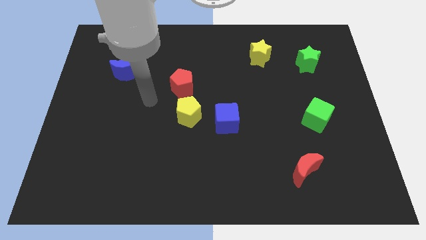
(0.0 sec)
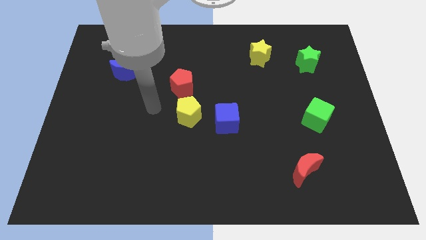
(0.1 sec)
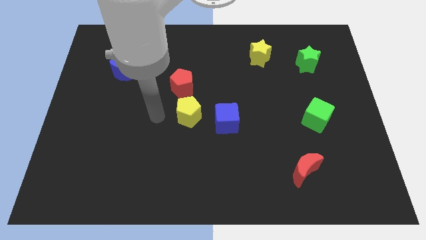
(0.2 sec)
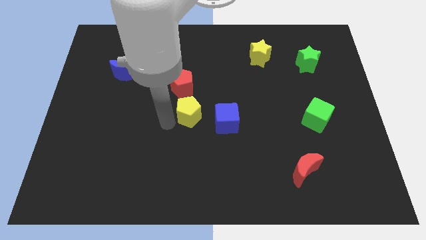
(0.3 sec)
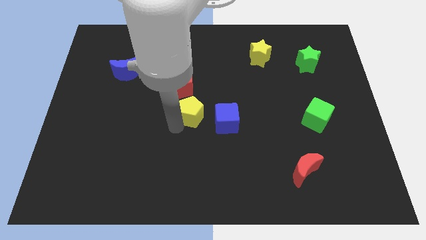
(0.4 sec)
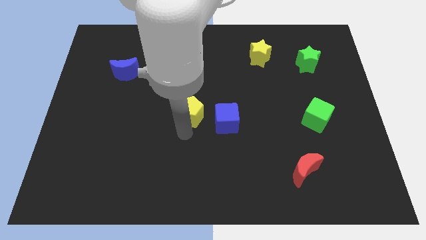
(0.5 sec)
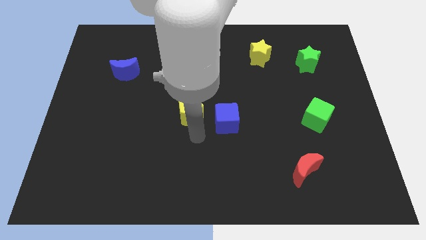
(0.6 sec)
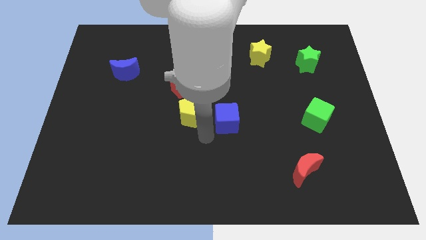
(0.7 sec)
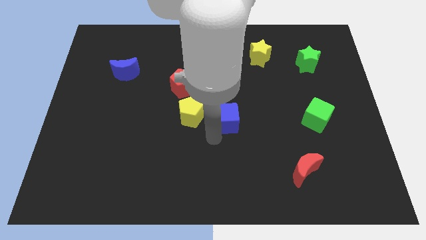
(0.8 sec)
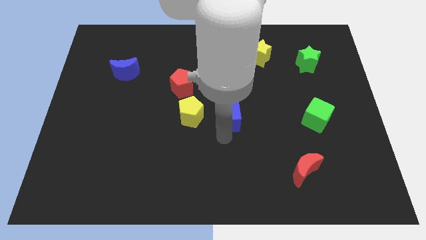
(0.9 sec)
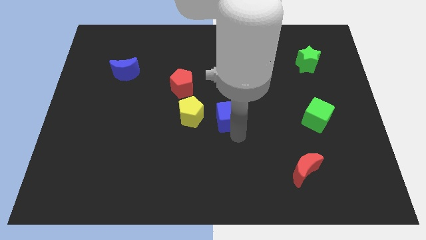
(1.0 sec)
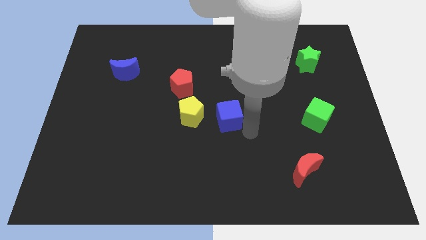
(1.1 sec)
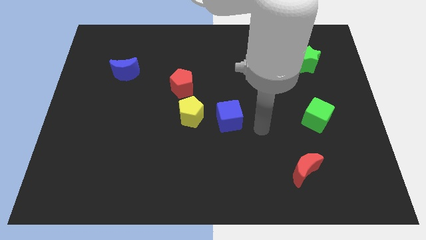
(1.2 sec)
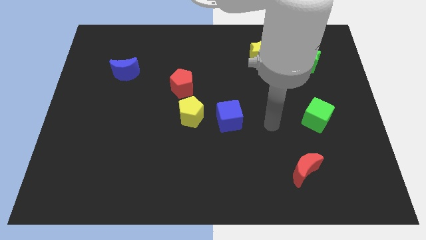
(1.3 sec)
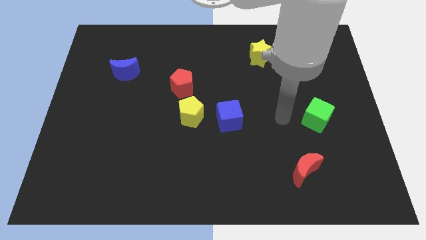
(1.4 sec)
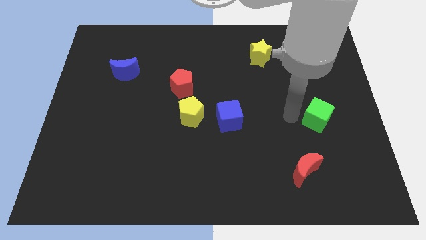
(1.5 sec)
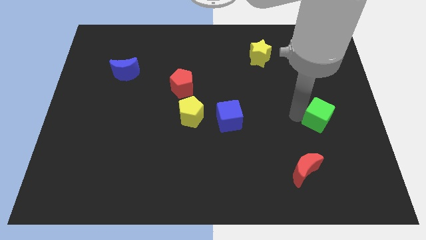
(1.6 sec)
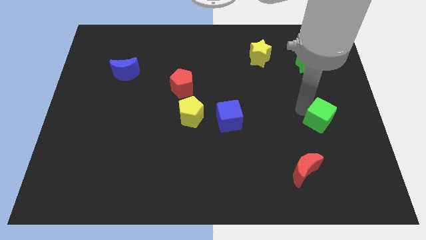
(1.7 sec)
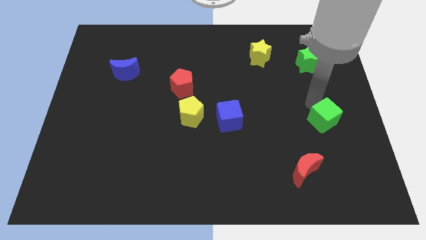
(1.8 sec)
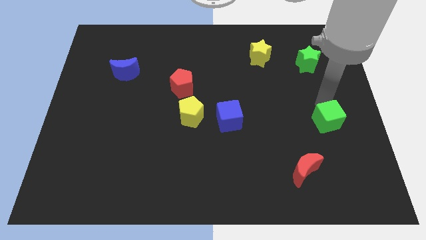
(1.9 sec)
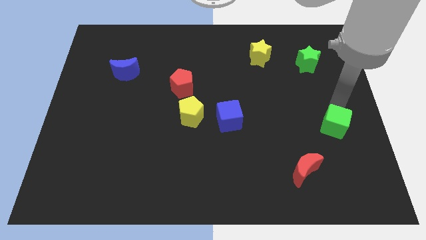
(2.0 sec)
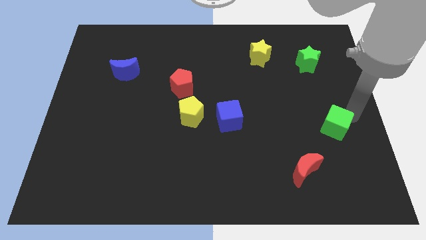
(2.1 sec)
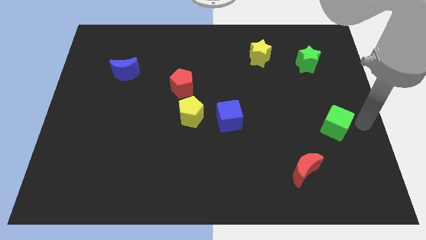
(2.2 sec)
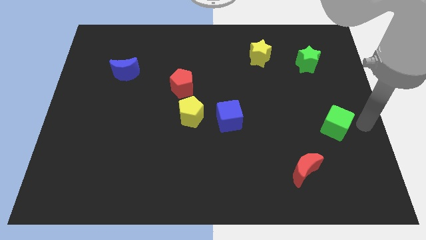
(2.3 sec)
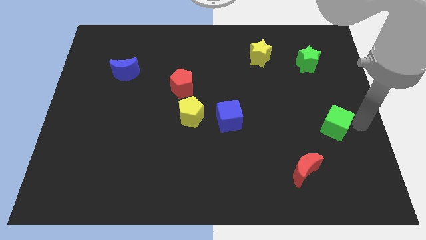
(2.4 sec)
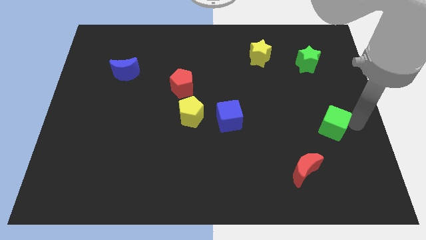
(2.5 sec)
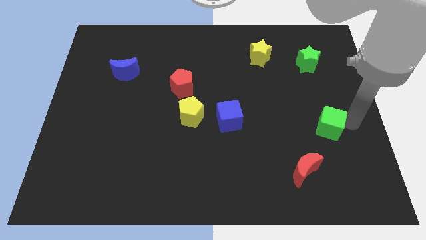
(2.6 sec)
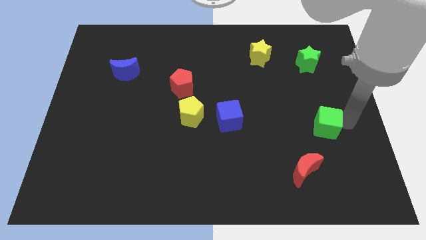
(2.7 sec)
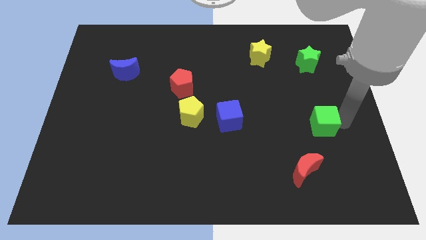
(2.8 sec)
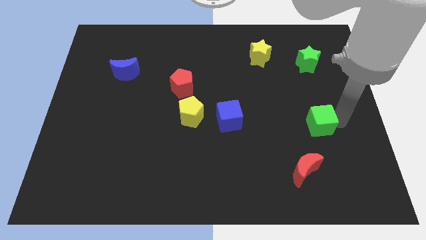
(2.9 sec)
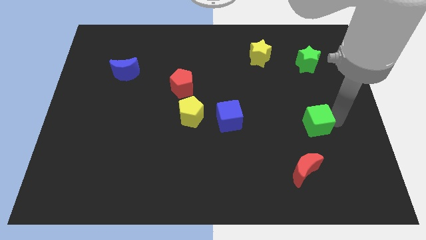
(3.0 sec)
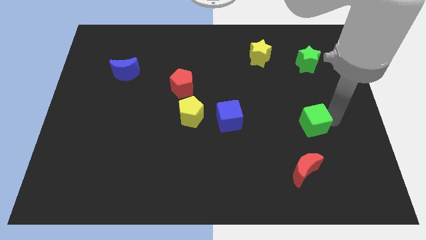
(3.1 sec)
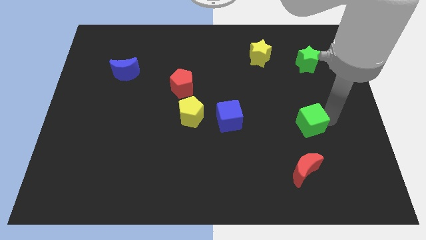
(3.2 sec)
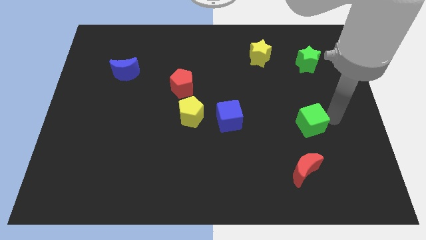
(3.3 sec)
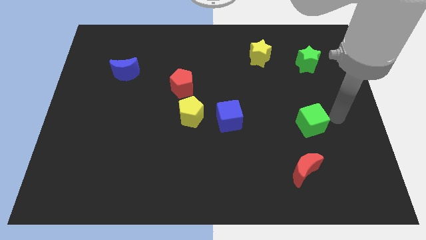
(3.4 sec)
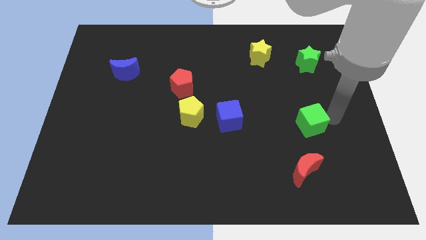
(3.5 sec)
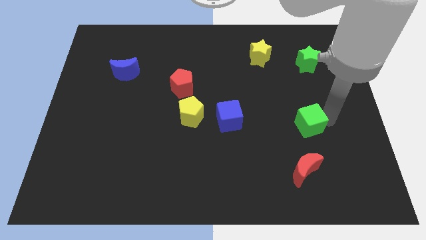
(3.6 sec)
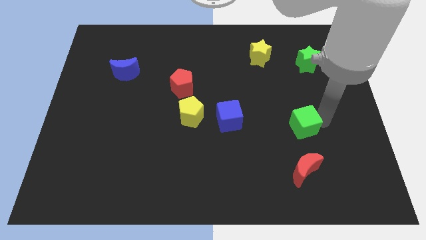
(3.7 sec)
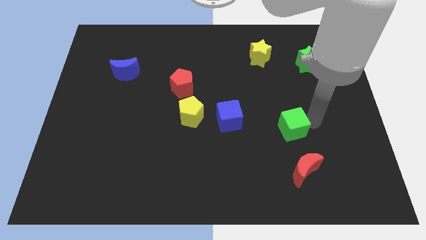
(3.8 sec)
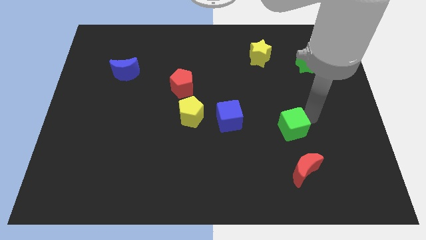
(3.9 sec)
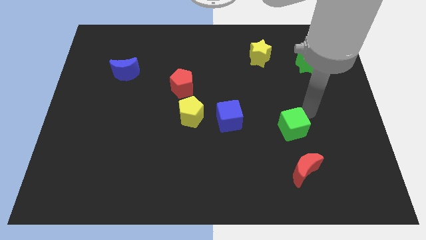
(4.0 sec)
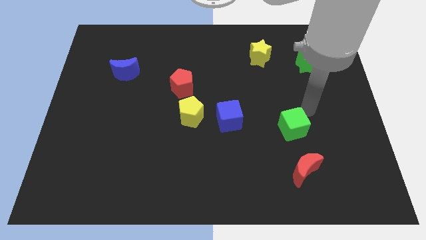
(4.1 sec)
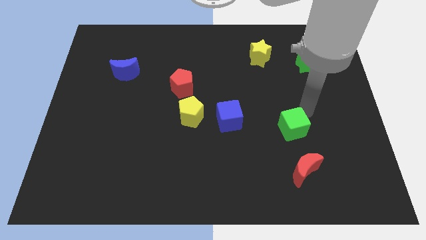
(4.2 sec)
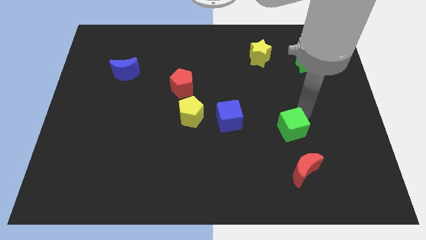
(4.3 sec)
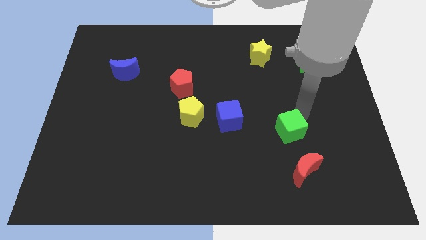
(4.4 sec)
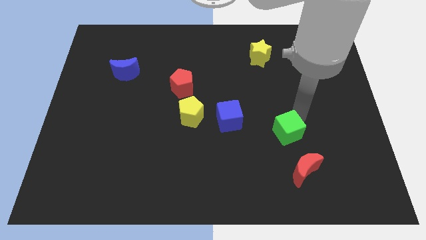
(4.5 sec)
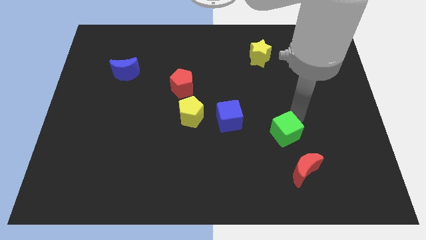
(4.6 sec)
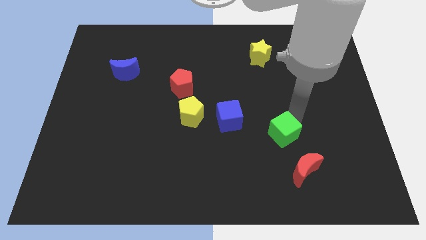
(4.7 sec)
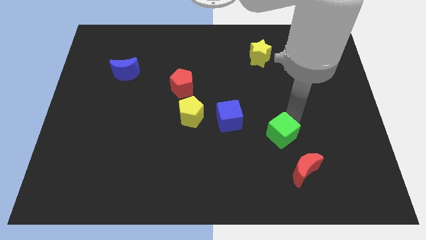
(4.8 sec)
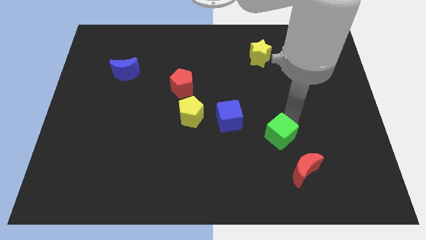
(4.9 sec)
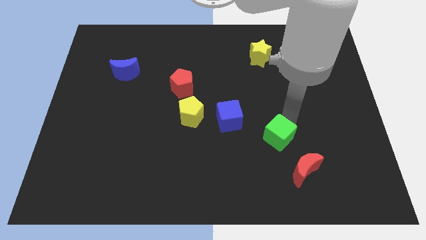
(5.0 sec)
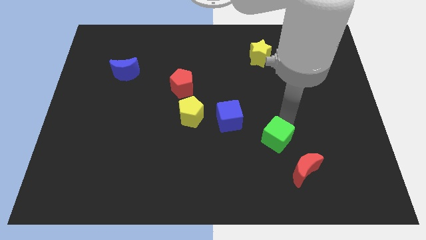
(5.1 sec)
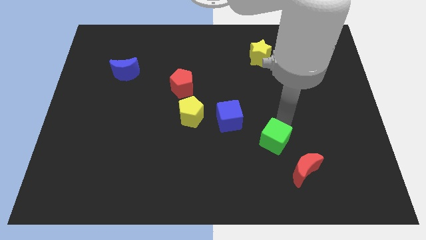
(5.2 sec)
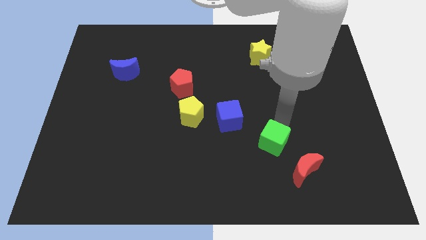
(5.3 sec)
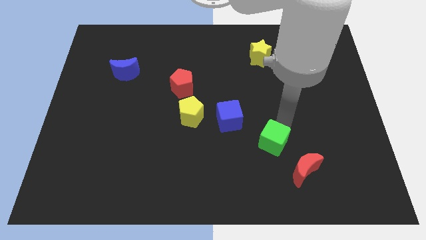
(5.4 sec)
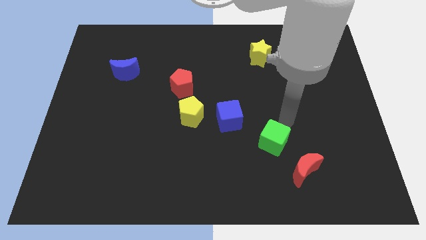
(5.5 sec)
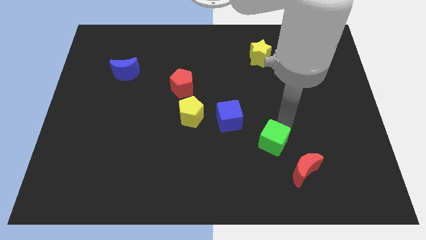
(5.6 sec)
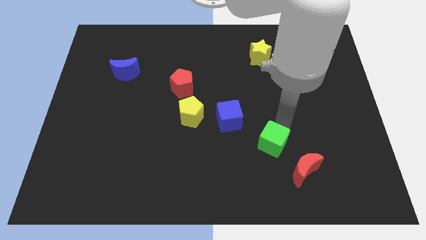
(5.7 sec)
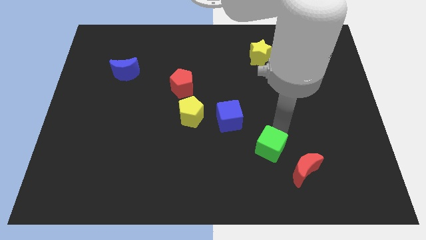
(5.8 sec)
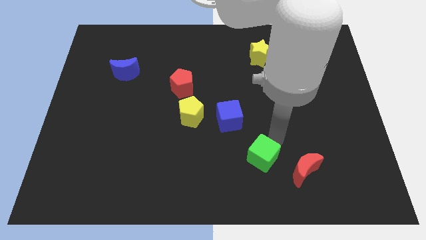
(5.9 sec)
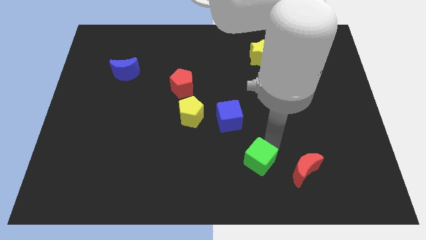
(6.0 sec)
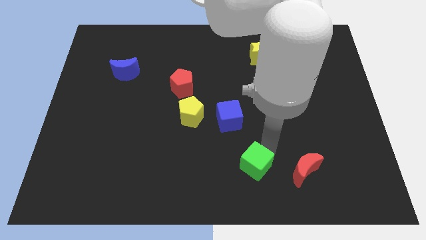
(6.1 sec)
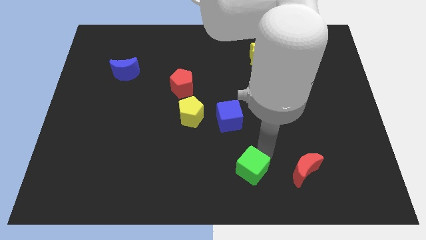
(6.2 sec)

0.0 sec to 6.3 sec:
move the green cube to the bottom

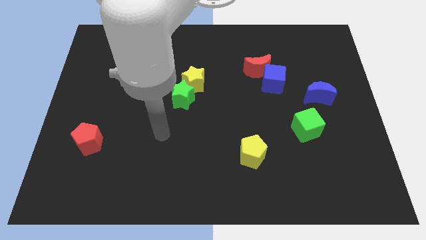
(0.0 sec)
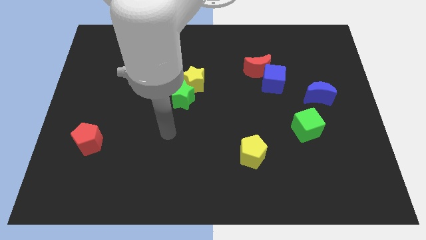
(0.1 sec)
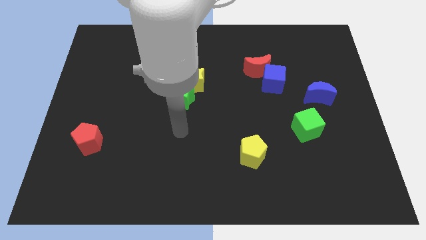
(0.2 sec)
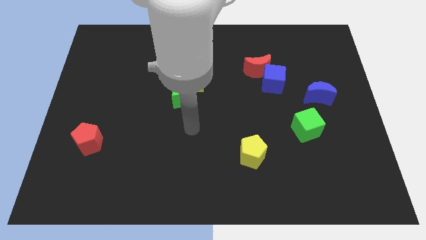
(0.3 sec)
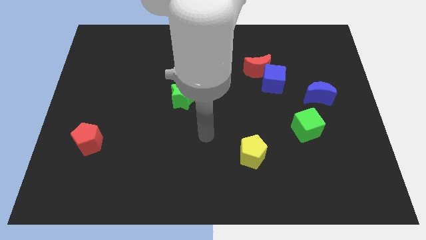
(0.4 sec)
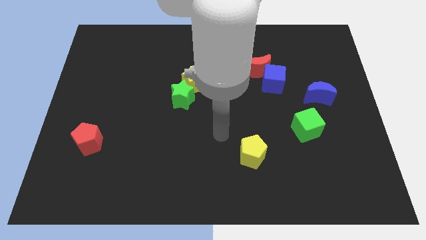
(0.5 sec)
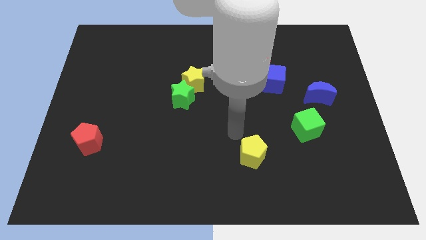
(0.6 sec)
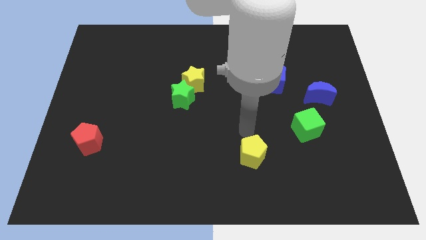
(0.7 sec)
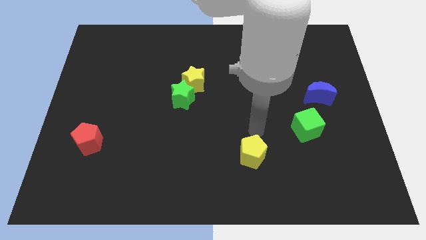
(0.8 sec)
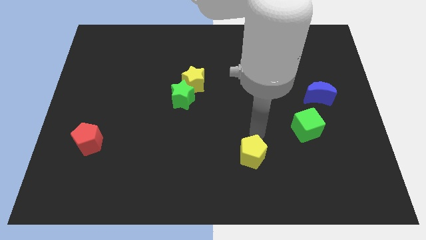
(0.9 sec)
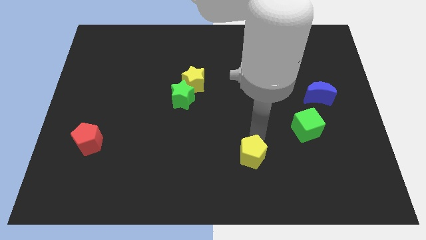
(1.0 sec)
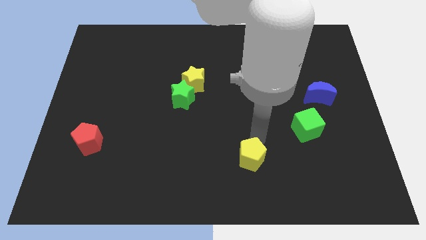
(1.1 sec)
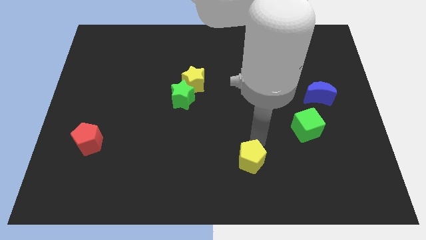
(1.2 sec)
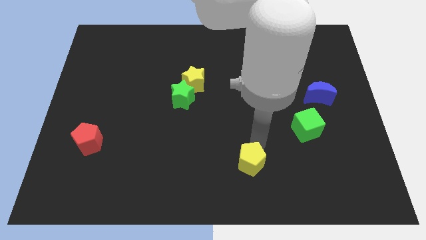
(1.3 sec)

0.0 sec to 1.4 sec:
slide the yellow pentagon to the bottom side
